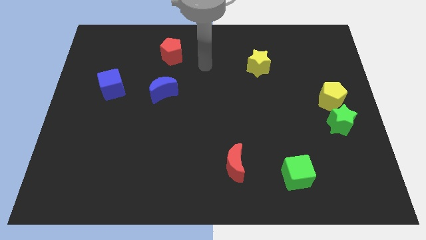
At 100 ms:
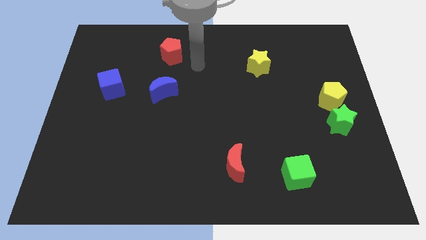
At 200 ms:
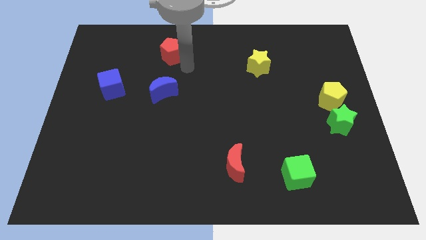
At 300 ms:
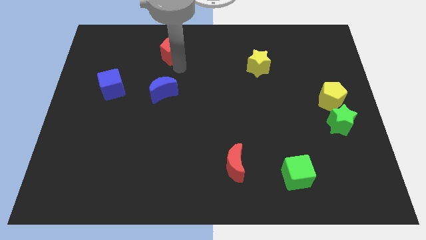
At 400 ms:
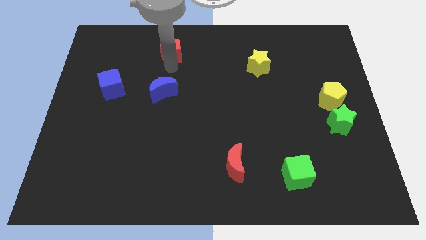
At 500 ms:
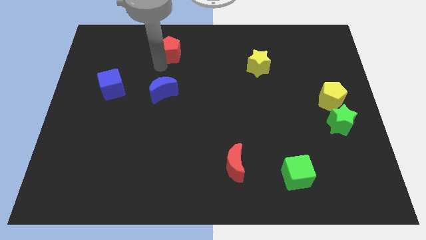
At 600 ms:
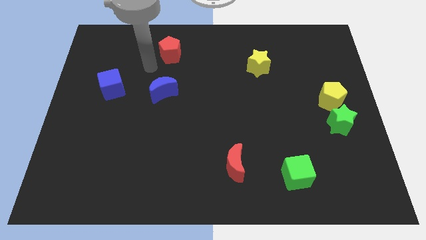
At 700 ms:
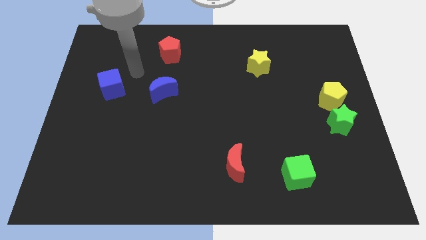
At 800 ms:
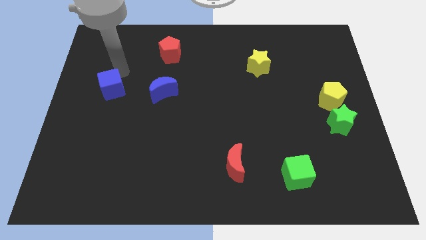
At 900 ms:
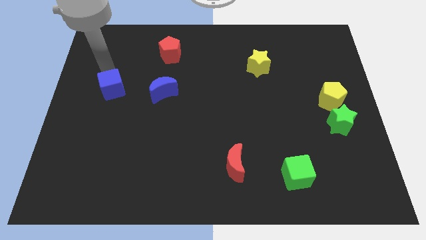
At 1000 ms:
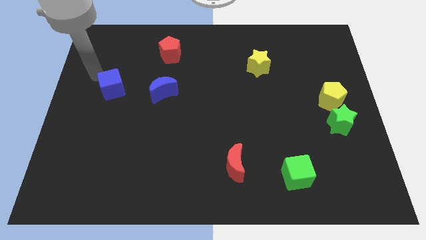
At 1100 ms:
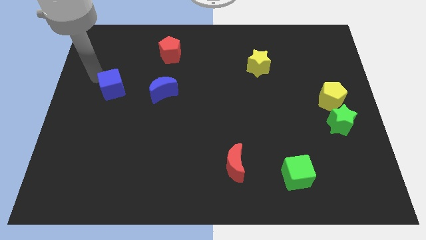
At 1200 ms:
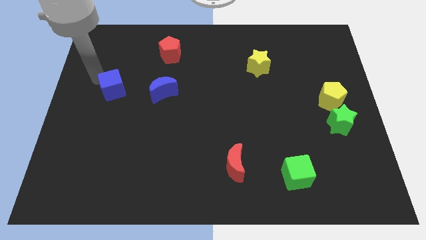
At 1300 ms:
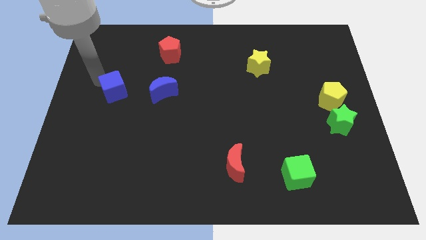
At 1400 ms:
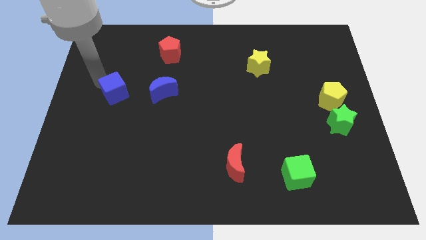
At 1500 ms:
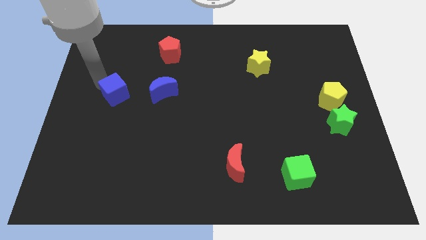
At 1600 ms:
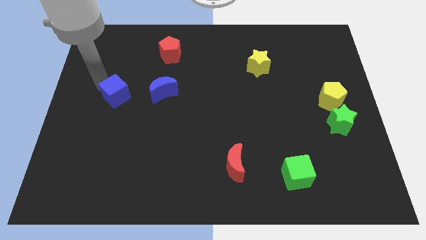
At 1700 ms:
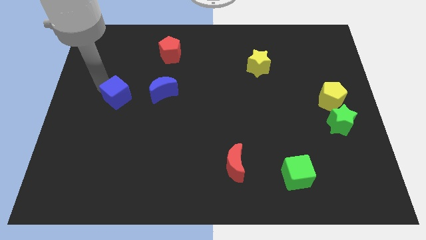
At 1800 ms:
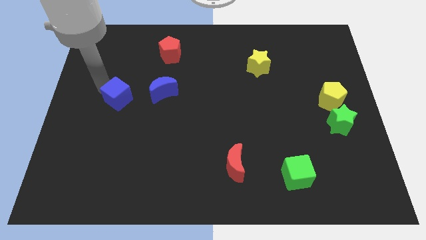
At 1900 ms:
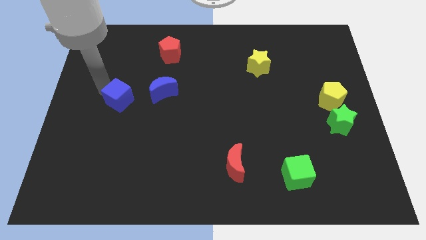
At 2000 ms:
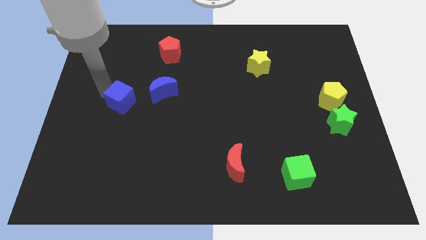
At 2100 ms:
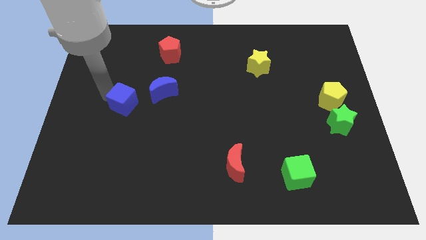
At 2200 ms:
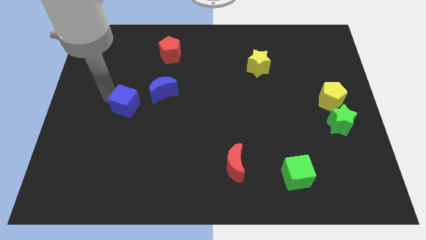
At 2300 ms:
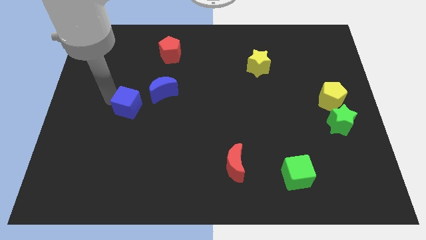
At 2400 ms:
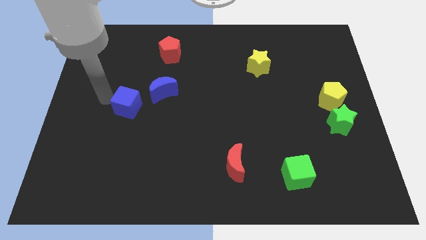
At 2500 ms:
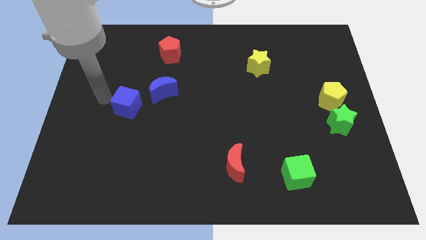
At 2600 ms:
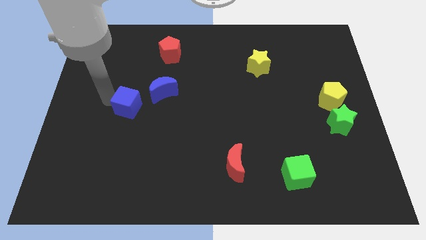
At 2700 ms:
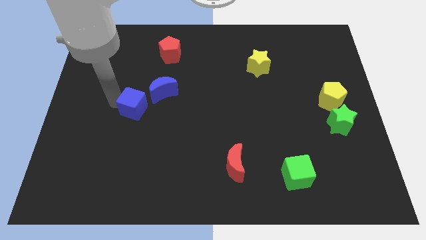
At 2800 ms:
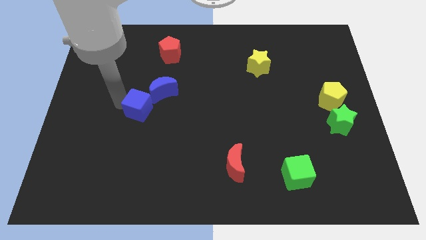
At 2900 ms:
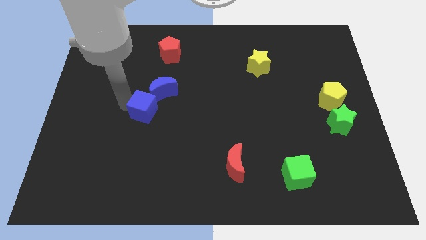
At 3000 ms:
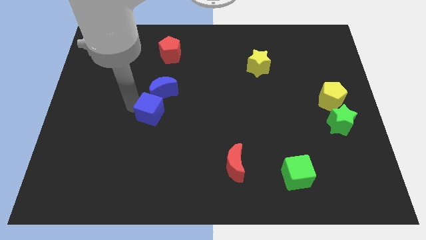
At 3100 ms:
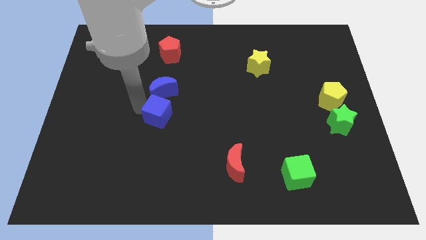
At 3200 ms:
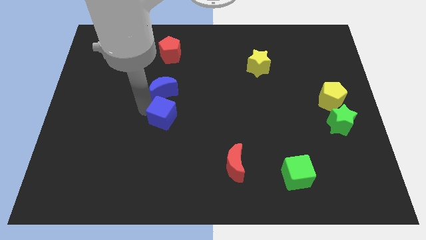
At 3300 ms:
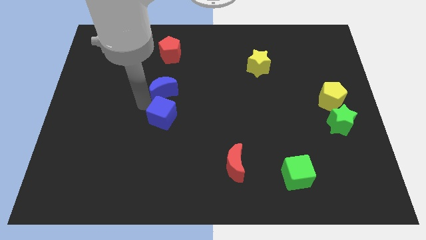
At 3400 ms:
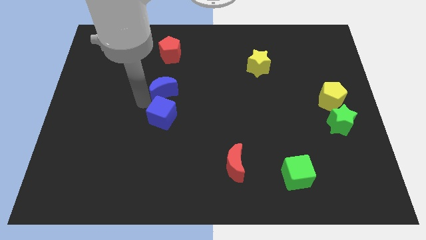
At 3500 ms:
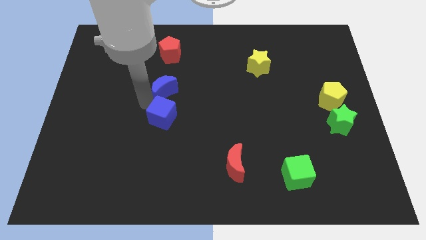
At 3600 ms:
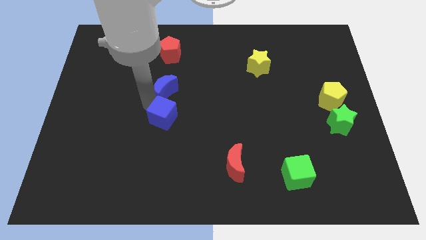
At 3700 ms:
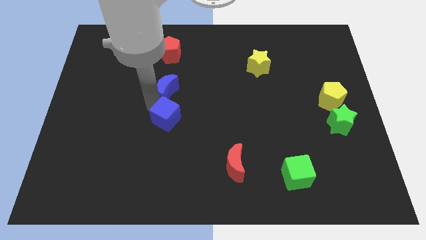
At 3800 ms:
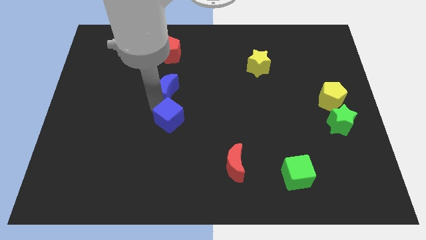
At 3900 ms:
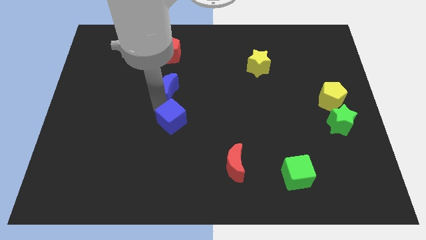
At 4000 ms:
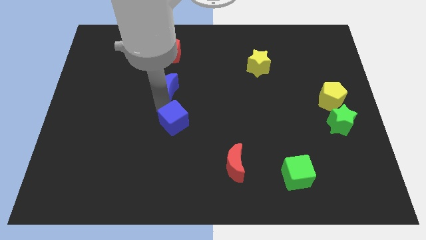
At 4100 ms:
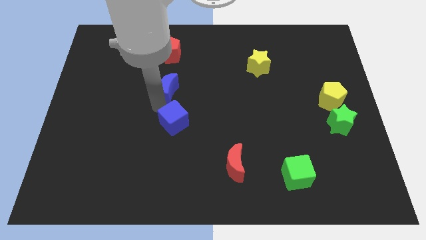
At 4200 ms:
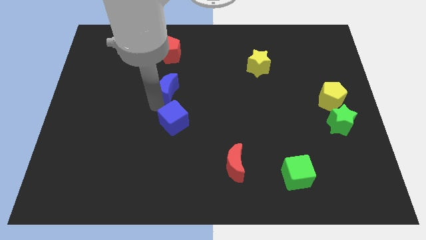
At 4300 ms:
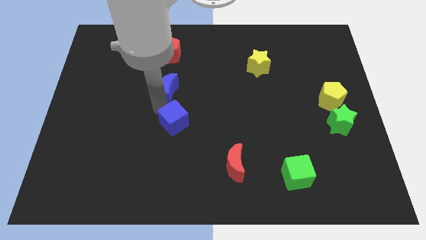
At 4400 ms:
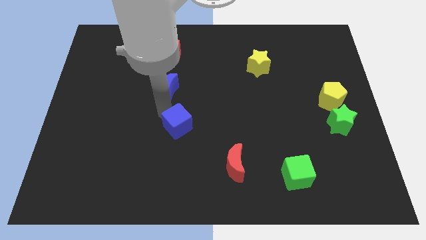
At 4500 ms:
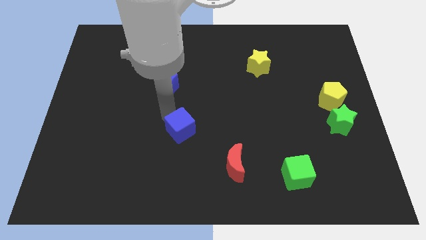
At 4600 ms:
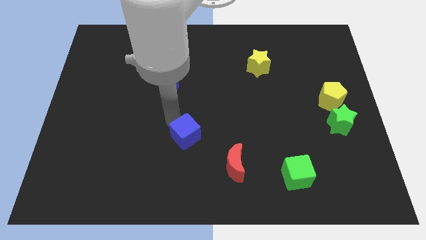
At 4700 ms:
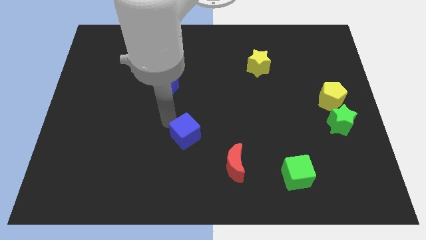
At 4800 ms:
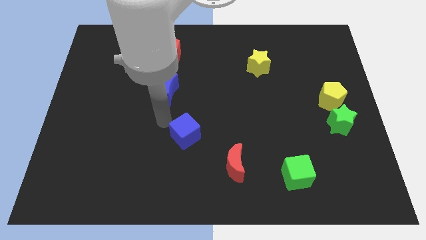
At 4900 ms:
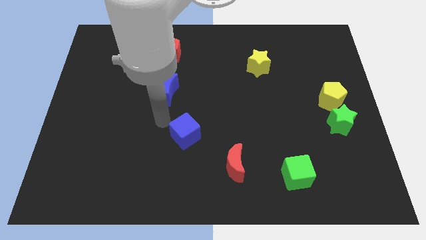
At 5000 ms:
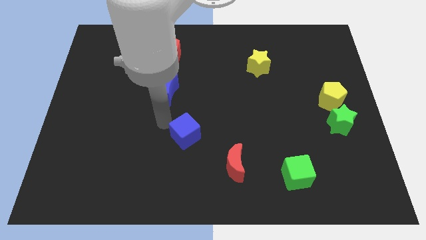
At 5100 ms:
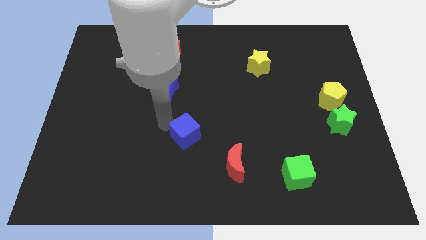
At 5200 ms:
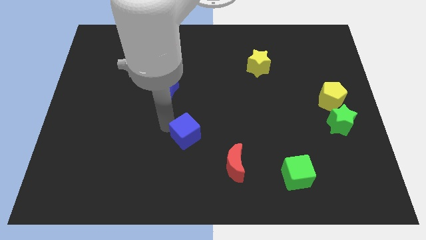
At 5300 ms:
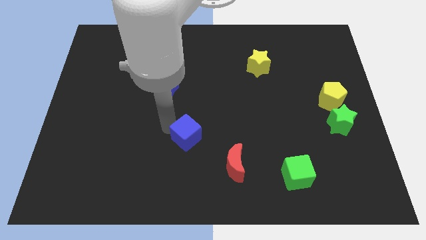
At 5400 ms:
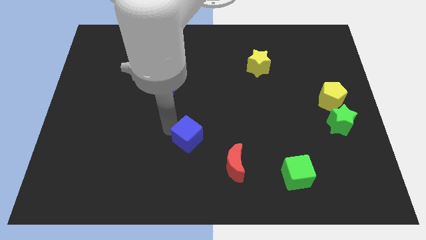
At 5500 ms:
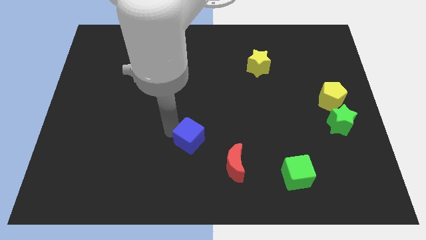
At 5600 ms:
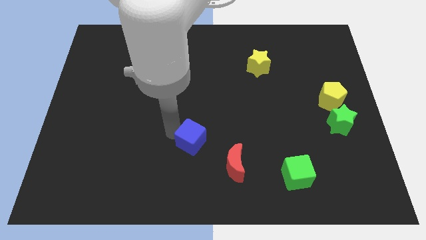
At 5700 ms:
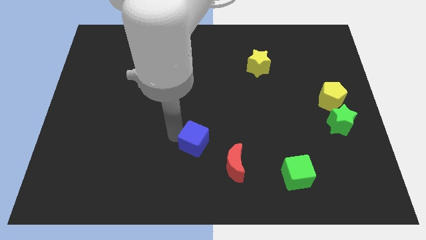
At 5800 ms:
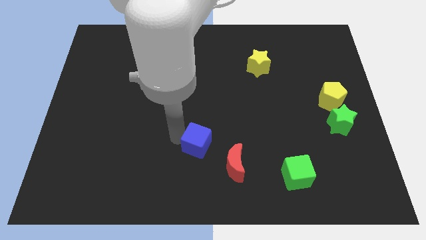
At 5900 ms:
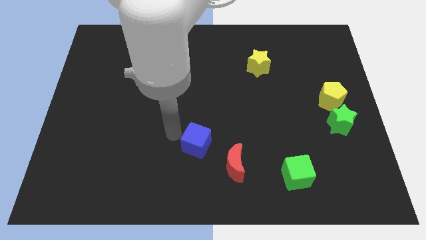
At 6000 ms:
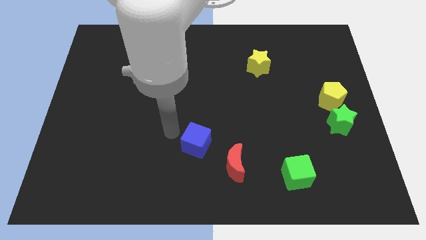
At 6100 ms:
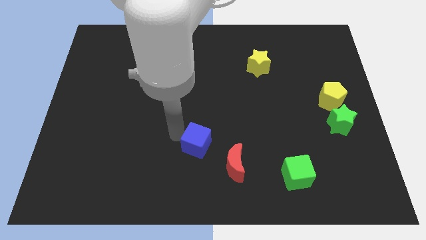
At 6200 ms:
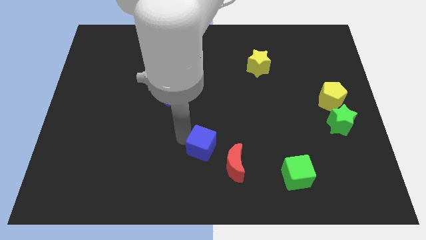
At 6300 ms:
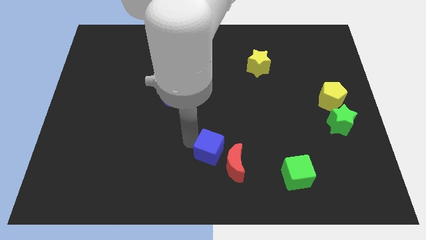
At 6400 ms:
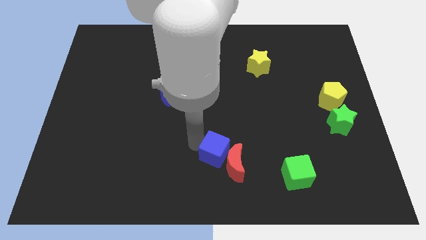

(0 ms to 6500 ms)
slide the blue cube towards the red moon

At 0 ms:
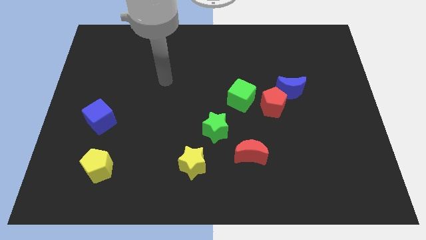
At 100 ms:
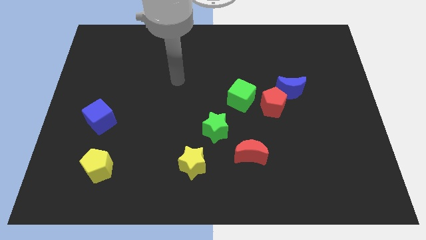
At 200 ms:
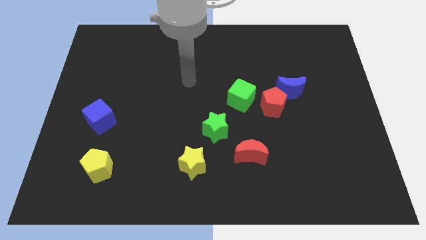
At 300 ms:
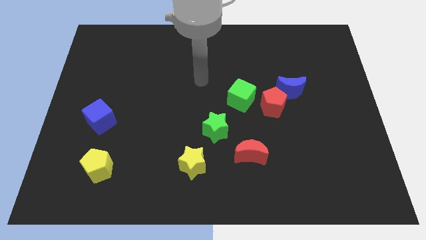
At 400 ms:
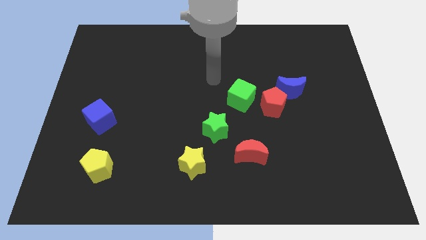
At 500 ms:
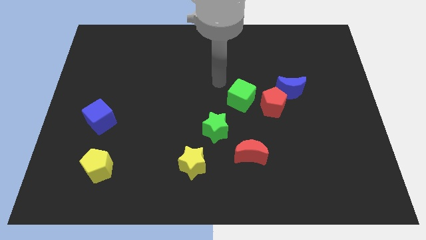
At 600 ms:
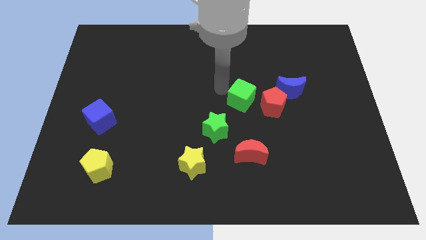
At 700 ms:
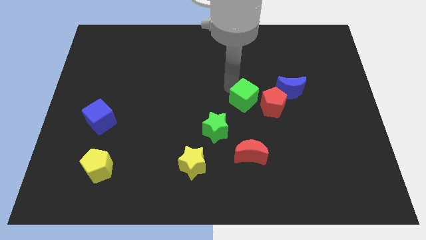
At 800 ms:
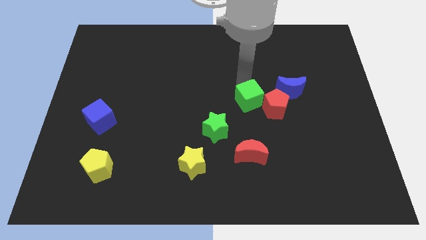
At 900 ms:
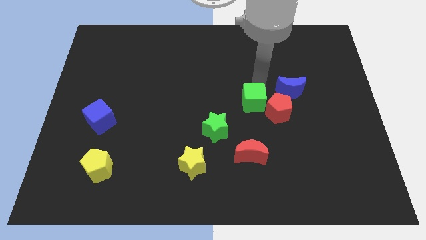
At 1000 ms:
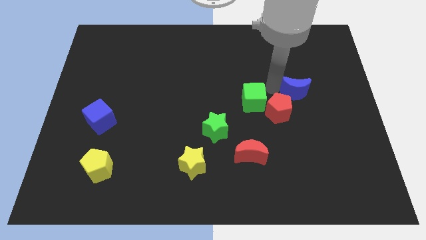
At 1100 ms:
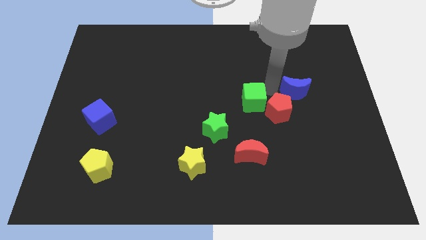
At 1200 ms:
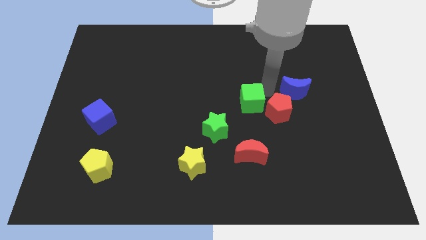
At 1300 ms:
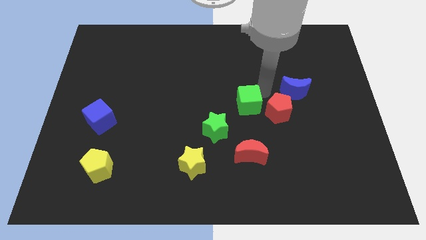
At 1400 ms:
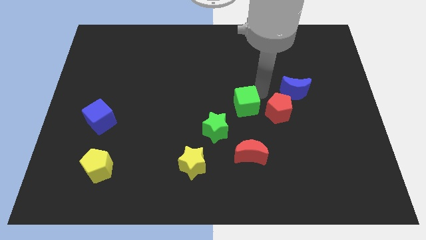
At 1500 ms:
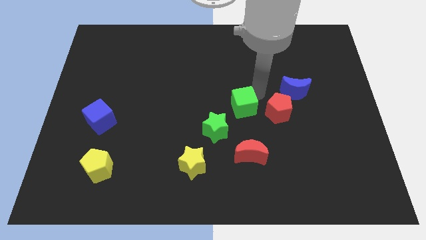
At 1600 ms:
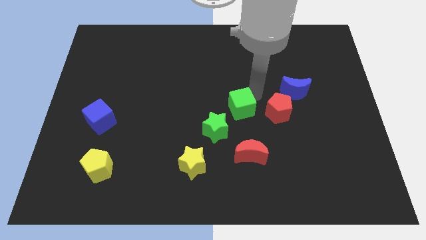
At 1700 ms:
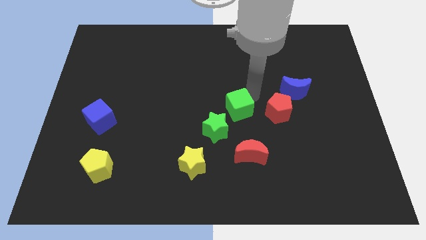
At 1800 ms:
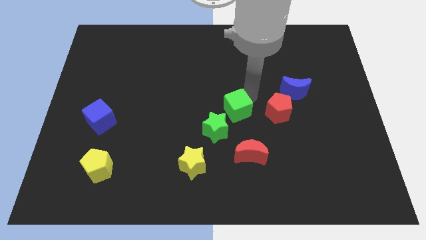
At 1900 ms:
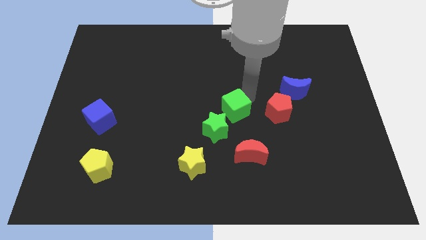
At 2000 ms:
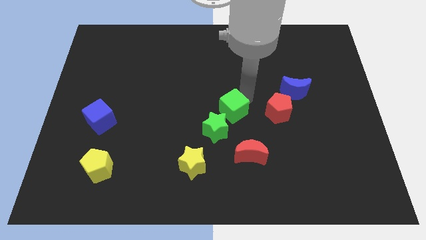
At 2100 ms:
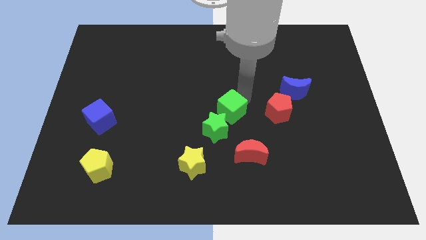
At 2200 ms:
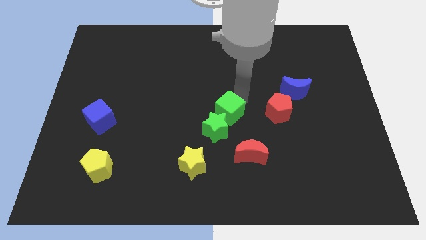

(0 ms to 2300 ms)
slide the green cube to the green star
